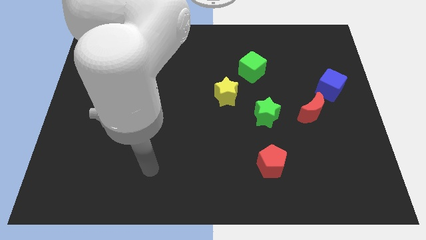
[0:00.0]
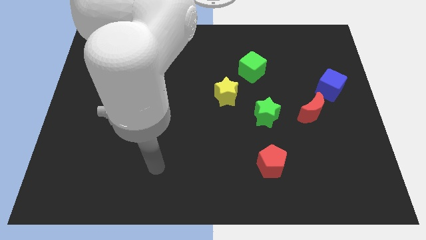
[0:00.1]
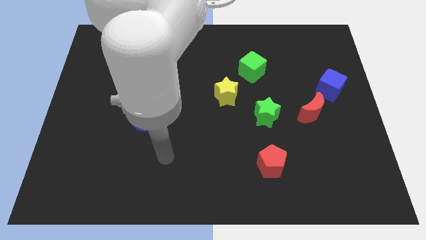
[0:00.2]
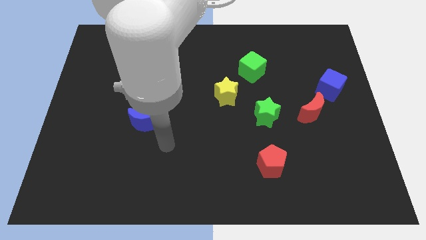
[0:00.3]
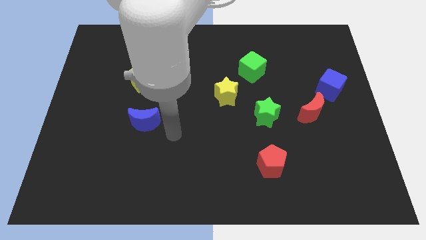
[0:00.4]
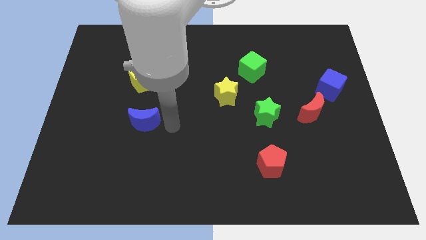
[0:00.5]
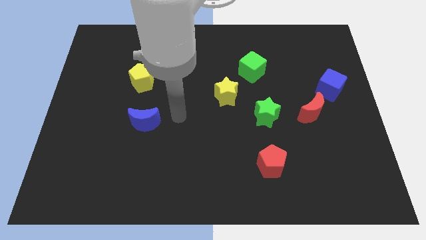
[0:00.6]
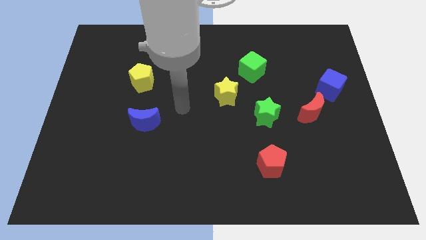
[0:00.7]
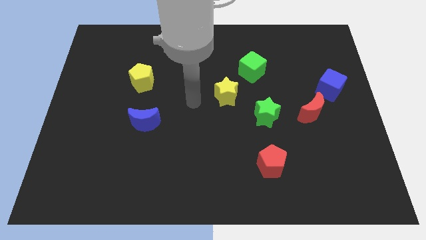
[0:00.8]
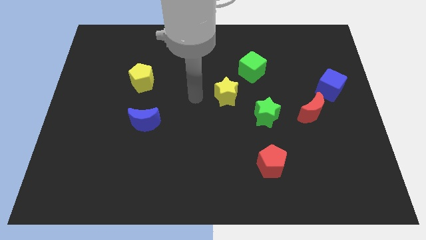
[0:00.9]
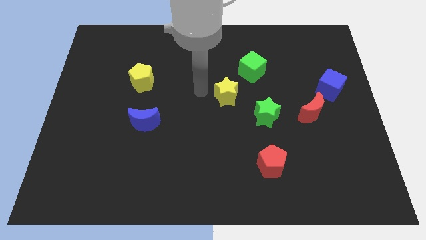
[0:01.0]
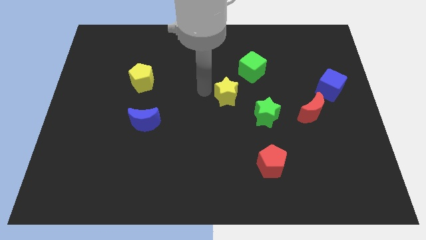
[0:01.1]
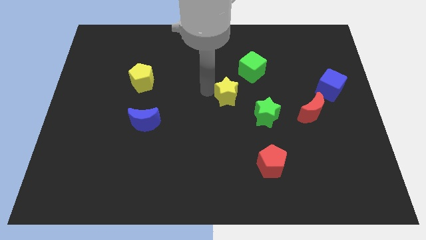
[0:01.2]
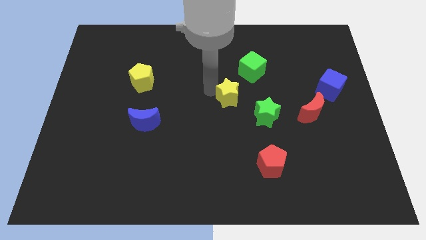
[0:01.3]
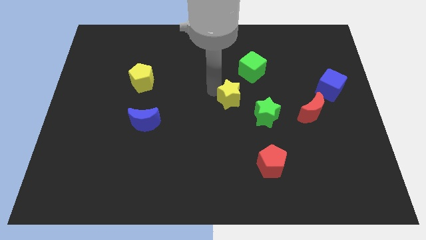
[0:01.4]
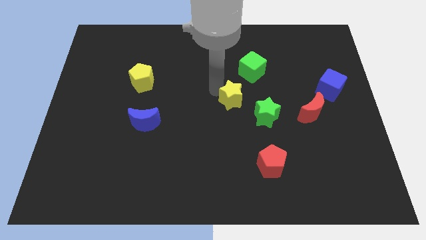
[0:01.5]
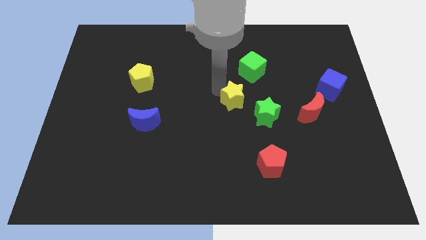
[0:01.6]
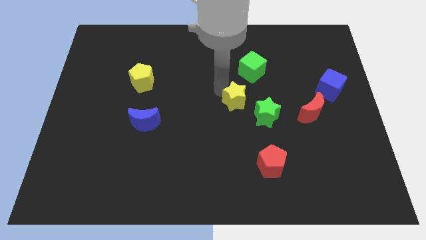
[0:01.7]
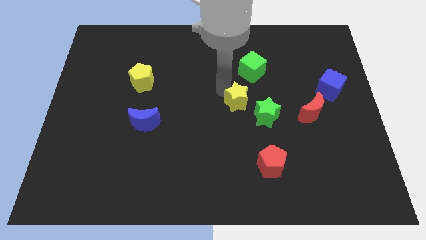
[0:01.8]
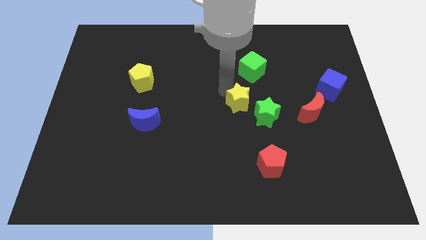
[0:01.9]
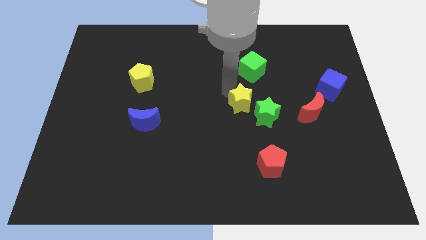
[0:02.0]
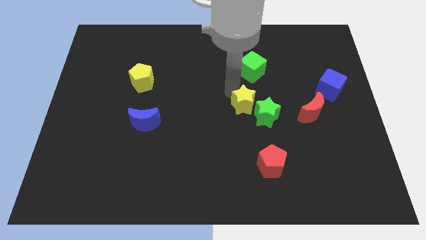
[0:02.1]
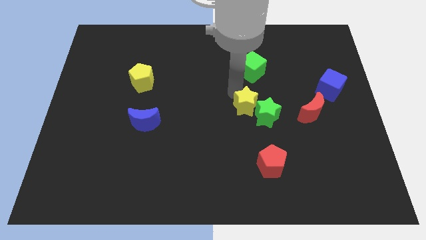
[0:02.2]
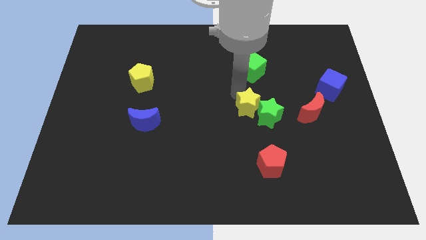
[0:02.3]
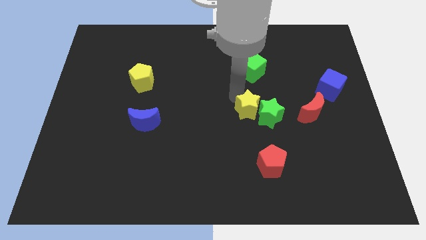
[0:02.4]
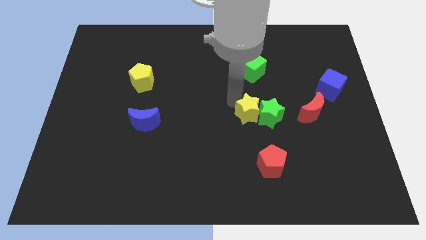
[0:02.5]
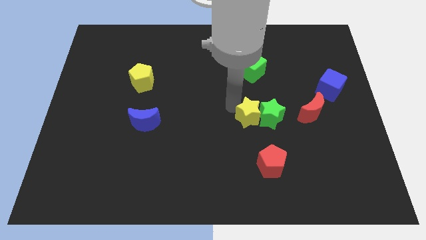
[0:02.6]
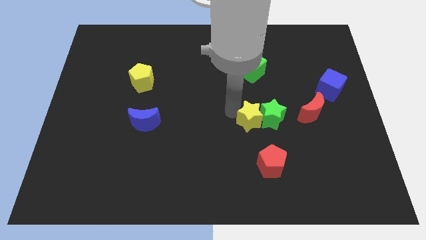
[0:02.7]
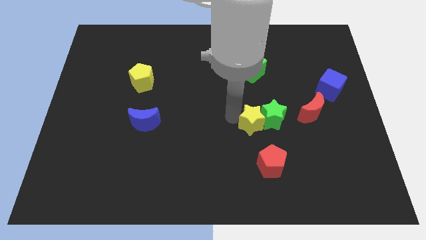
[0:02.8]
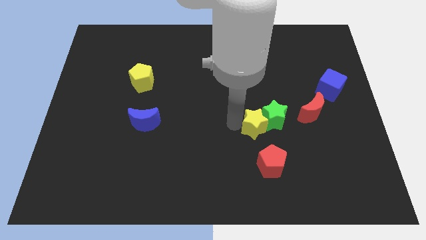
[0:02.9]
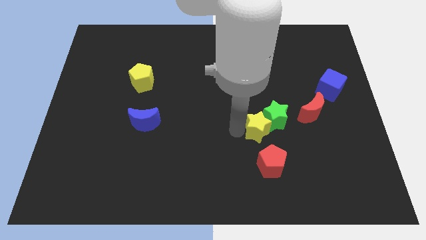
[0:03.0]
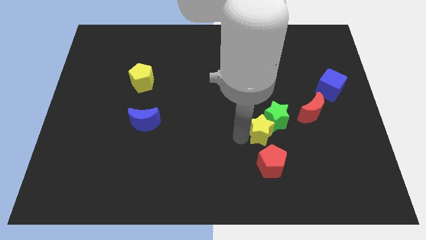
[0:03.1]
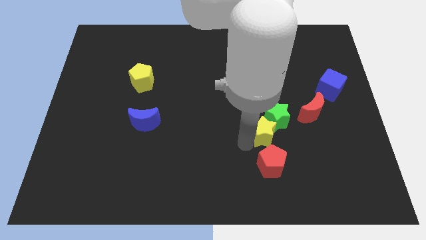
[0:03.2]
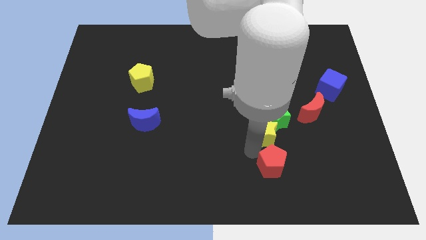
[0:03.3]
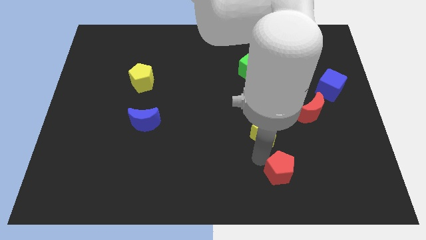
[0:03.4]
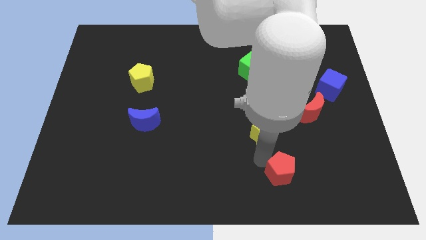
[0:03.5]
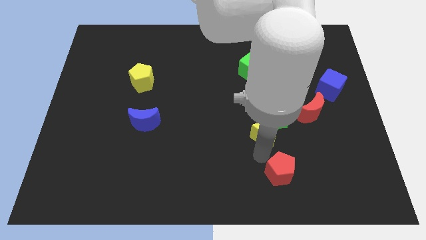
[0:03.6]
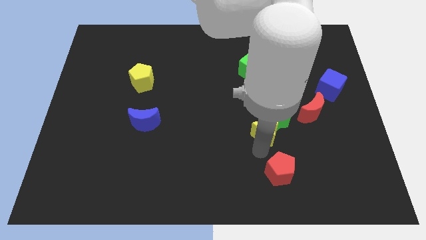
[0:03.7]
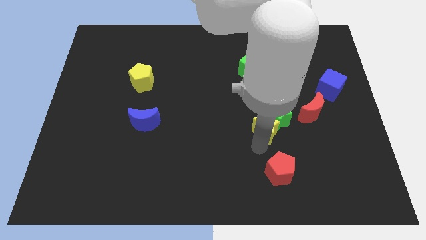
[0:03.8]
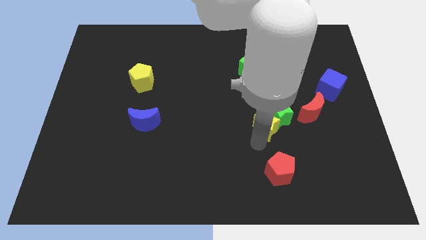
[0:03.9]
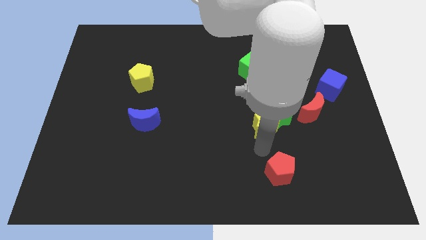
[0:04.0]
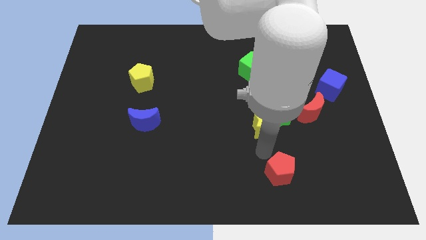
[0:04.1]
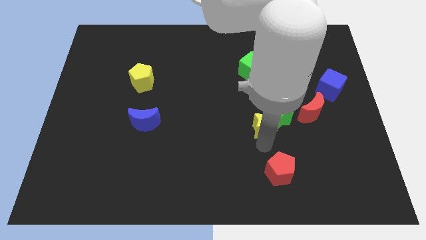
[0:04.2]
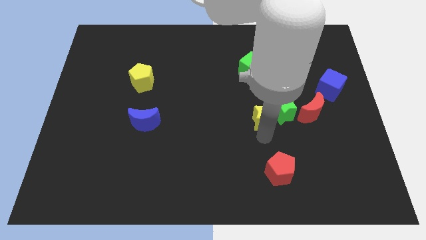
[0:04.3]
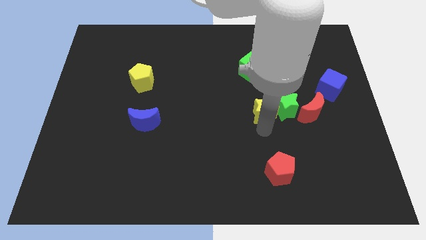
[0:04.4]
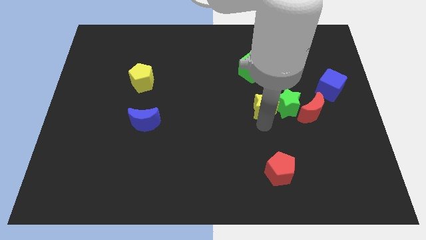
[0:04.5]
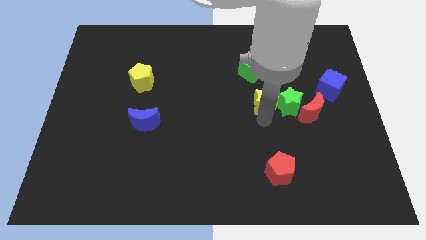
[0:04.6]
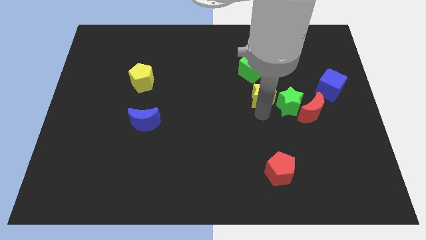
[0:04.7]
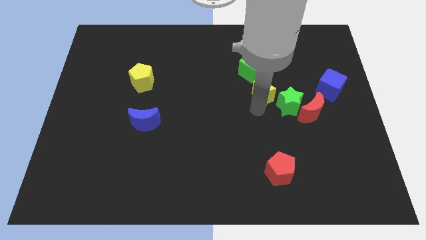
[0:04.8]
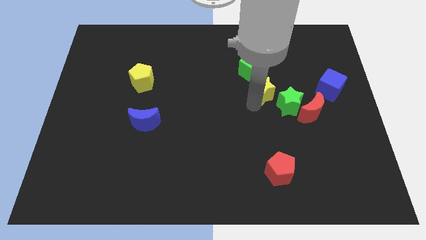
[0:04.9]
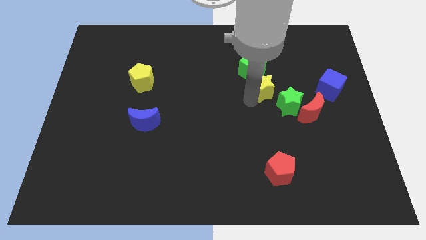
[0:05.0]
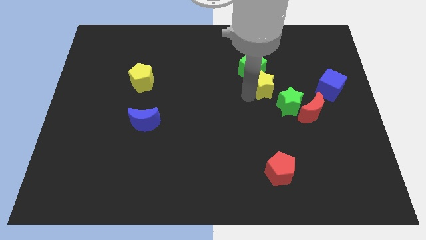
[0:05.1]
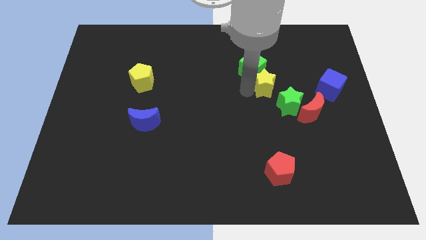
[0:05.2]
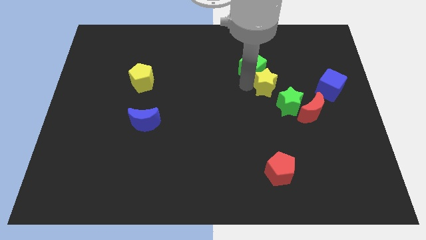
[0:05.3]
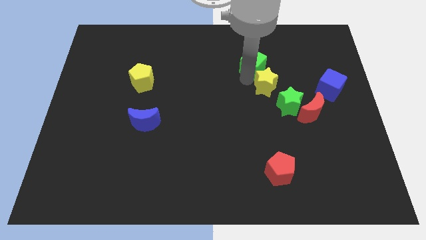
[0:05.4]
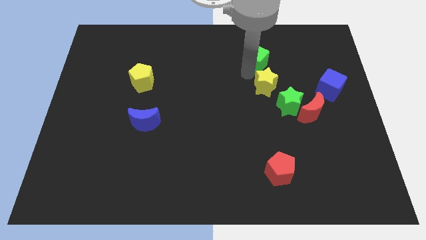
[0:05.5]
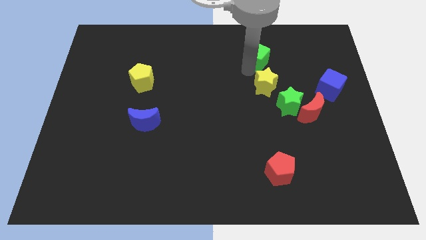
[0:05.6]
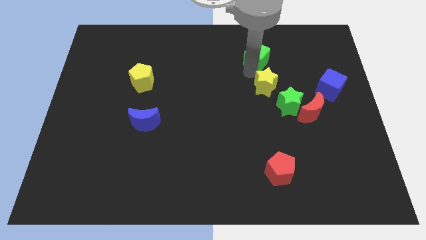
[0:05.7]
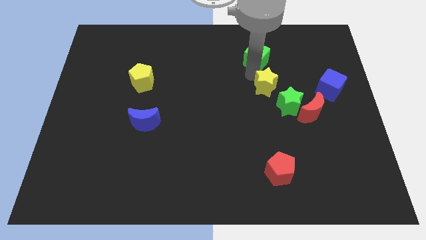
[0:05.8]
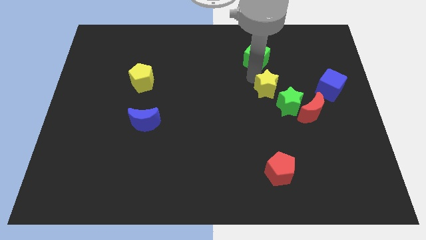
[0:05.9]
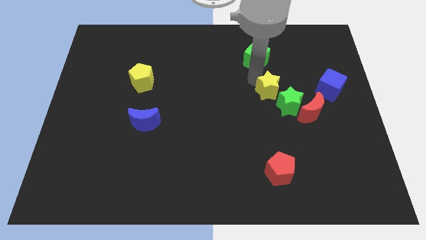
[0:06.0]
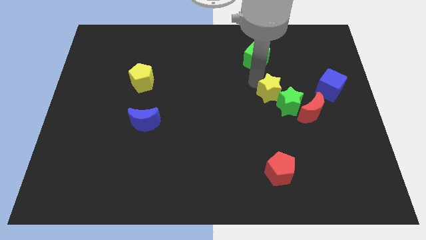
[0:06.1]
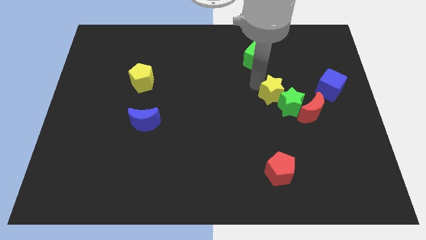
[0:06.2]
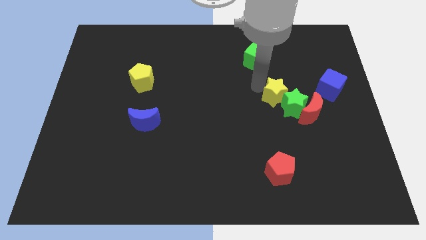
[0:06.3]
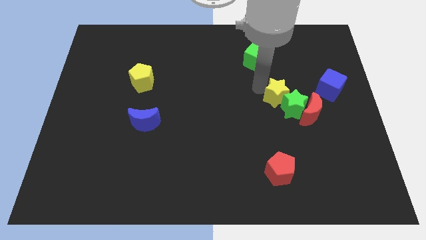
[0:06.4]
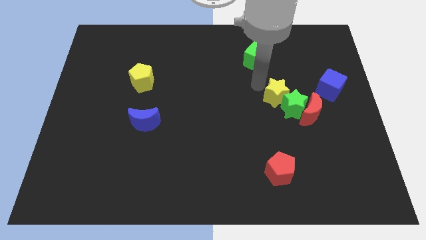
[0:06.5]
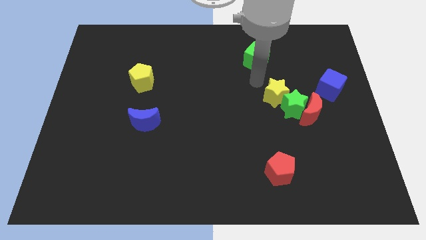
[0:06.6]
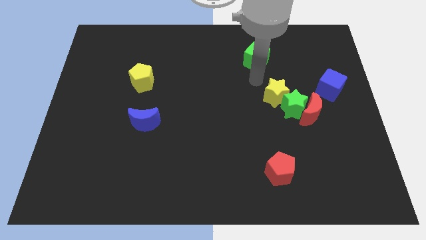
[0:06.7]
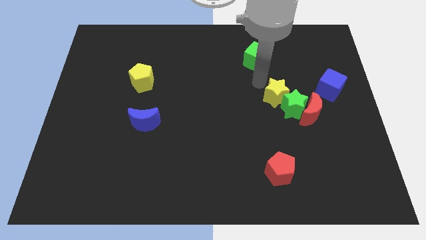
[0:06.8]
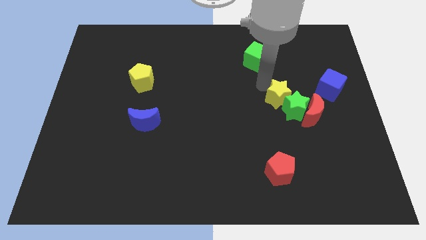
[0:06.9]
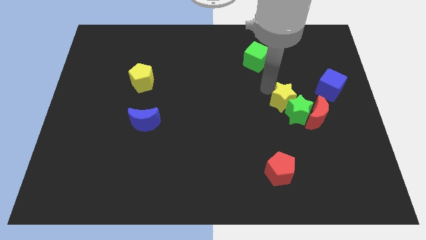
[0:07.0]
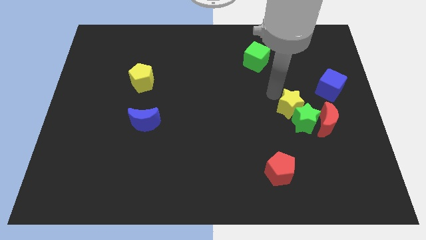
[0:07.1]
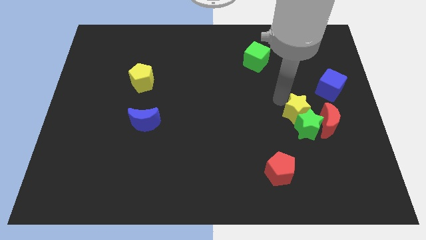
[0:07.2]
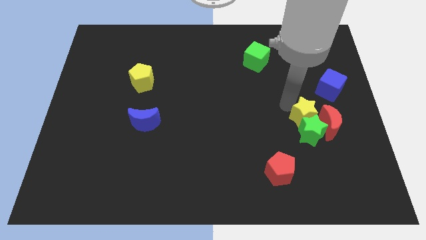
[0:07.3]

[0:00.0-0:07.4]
slide the yellow star towards the red moon

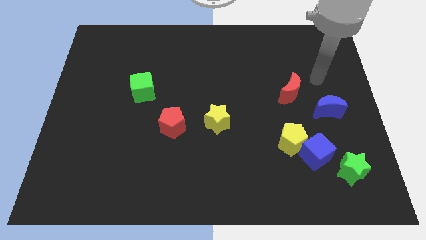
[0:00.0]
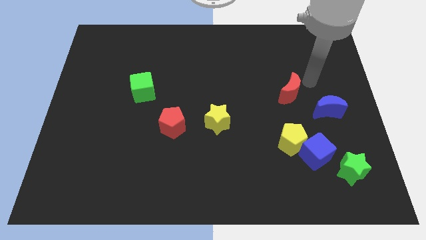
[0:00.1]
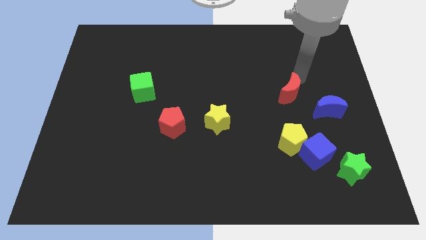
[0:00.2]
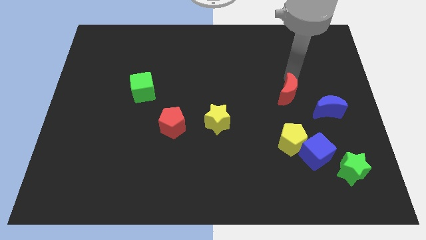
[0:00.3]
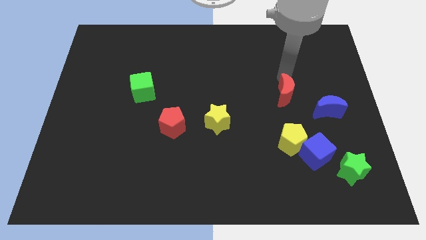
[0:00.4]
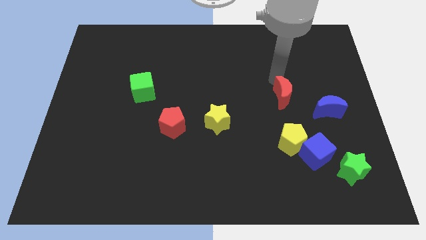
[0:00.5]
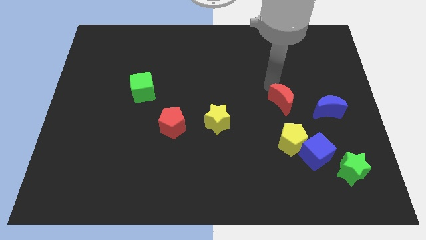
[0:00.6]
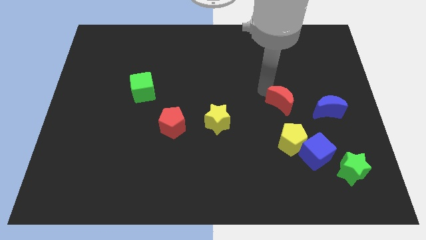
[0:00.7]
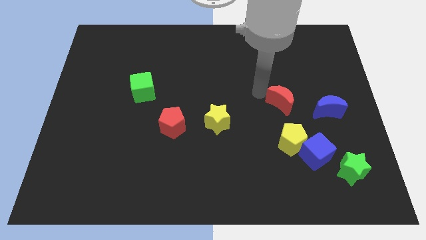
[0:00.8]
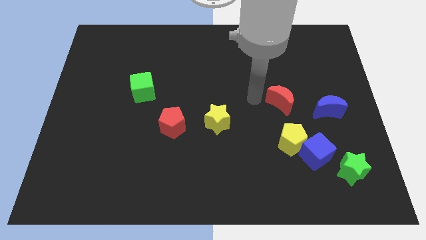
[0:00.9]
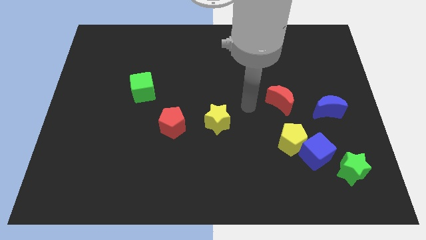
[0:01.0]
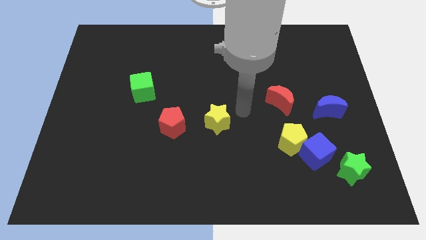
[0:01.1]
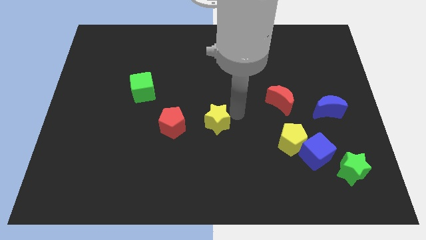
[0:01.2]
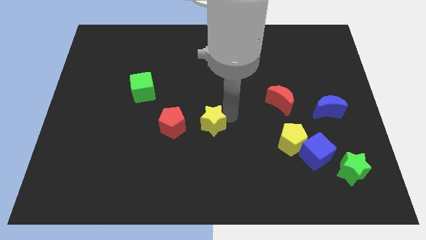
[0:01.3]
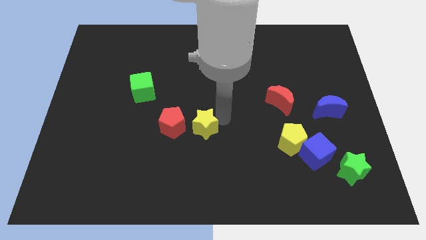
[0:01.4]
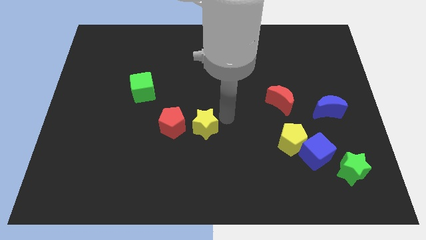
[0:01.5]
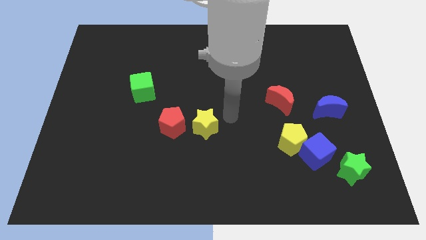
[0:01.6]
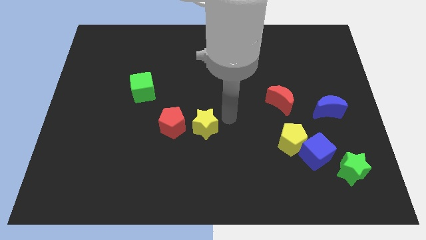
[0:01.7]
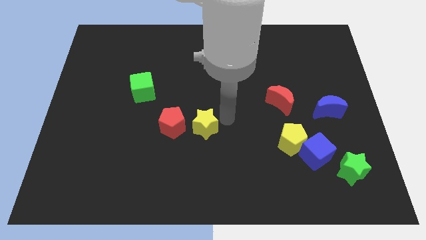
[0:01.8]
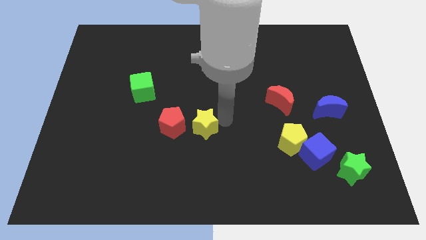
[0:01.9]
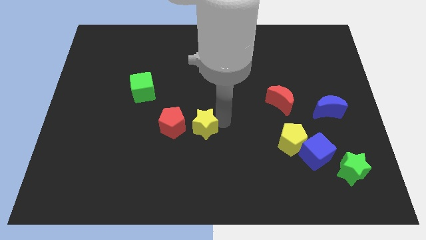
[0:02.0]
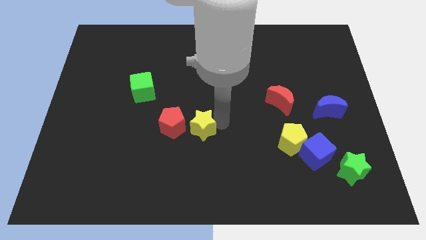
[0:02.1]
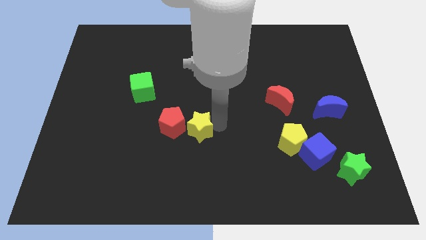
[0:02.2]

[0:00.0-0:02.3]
move the yellow star next to the red pentagon
